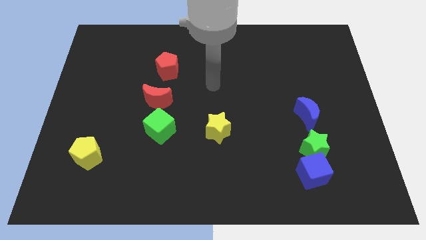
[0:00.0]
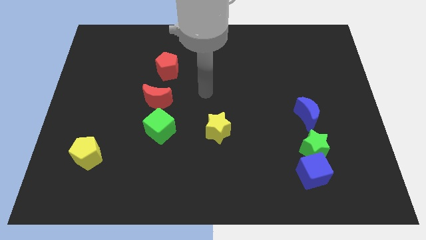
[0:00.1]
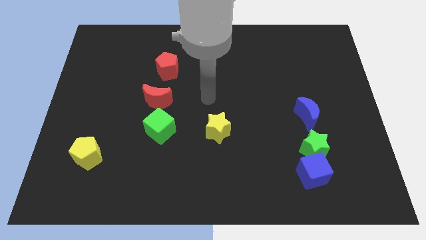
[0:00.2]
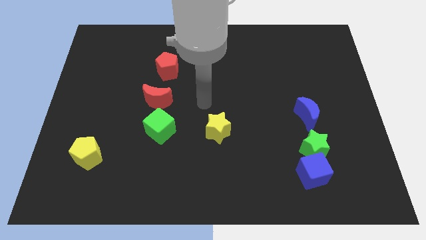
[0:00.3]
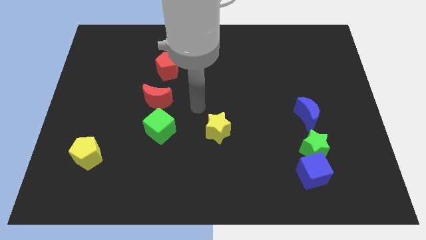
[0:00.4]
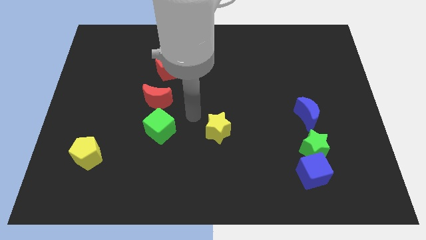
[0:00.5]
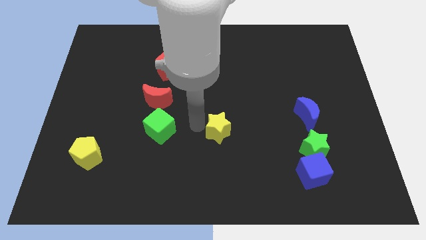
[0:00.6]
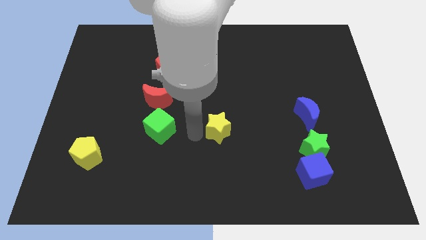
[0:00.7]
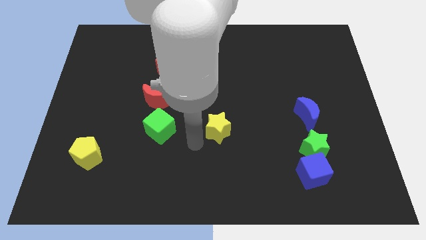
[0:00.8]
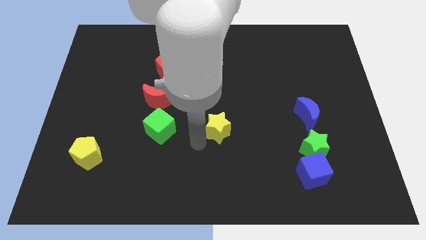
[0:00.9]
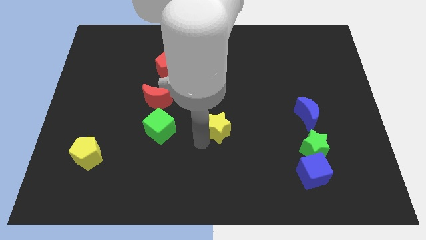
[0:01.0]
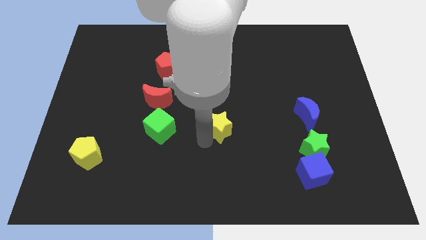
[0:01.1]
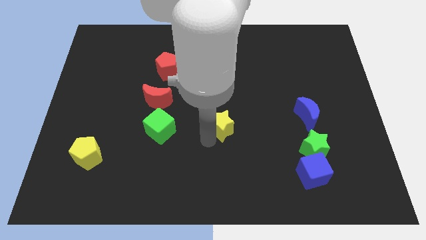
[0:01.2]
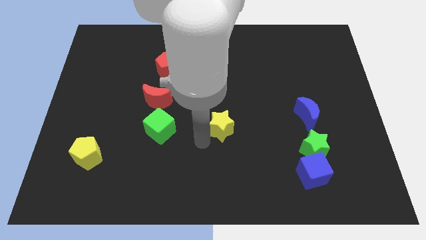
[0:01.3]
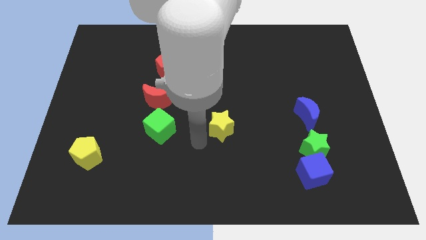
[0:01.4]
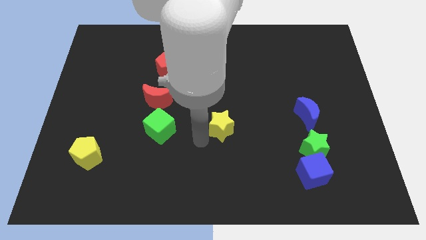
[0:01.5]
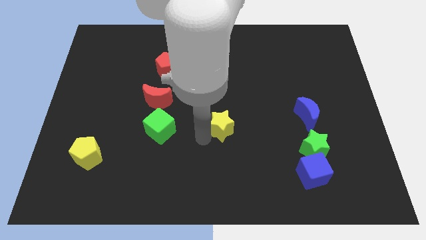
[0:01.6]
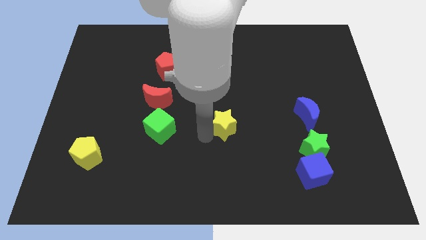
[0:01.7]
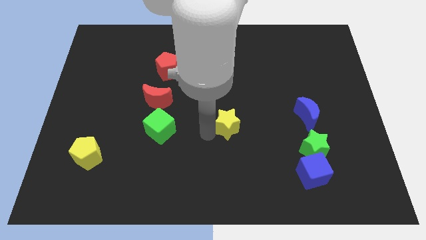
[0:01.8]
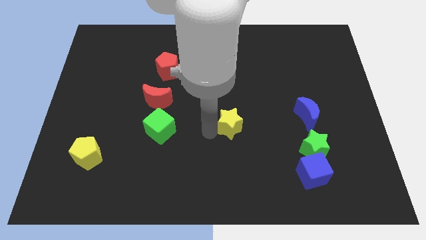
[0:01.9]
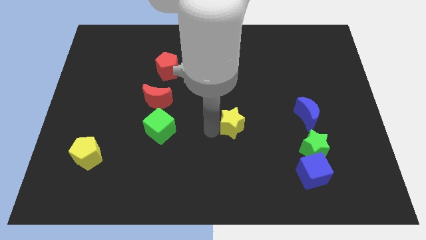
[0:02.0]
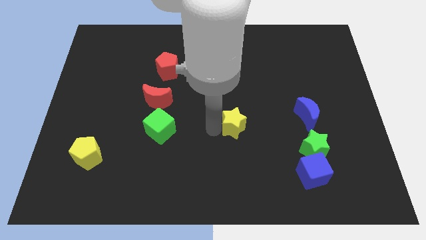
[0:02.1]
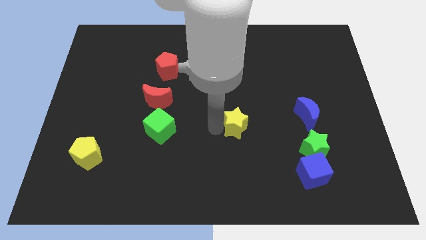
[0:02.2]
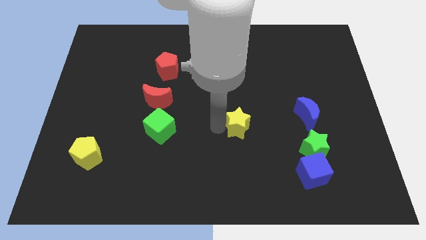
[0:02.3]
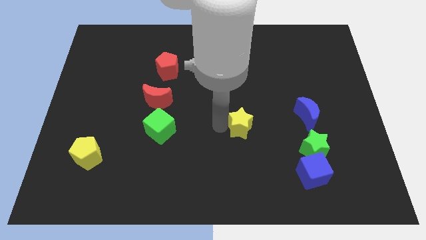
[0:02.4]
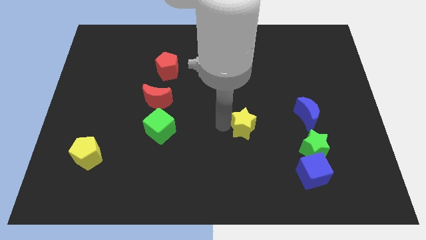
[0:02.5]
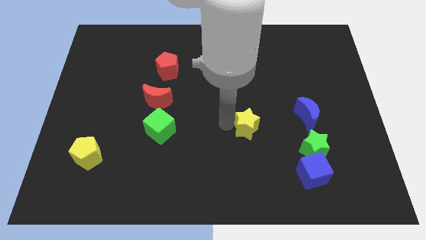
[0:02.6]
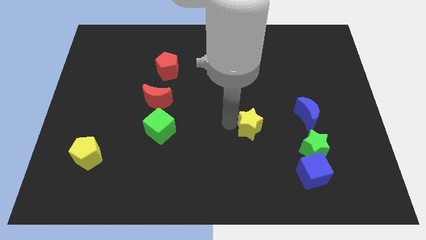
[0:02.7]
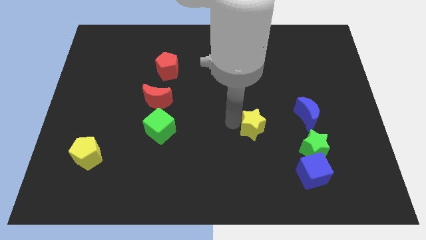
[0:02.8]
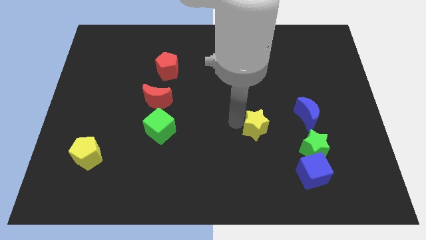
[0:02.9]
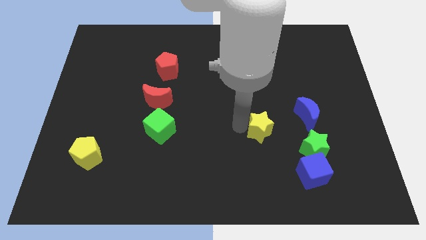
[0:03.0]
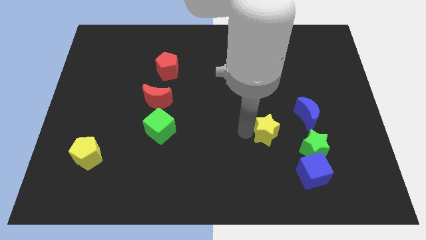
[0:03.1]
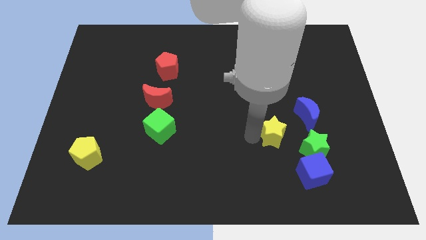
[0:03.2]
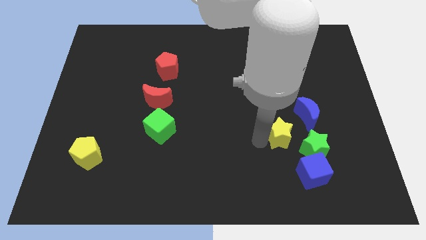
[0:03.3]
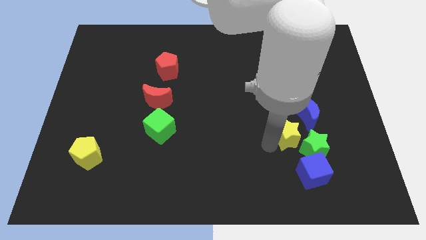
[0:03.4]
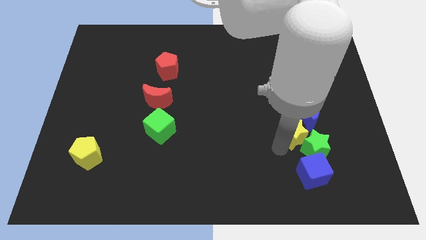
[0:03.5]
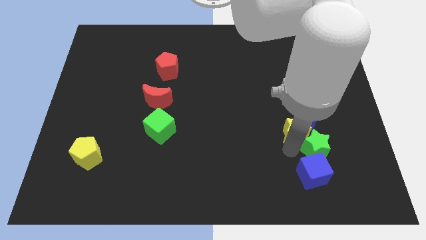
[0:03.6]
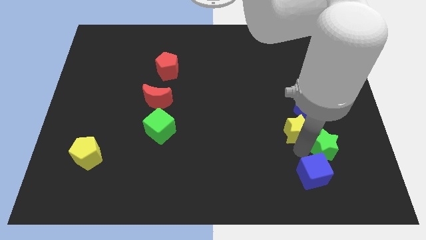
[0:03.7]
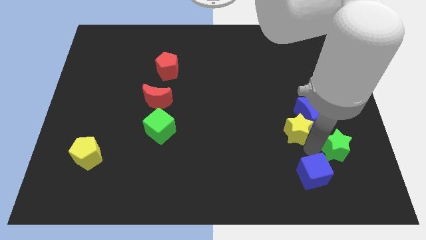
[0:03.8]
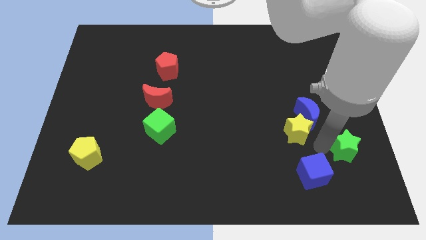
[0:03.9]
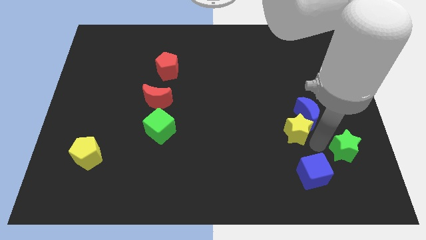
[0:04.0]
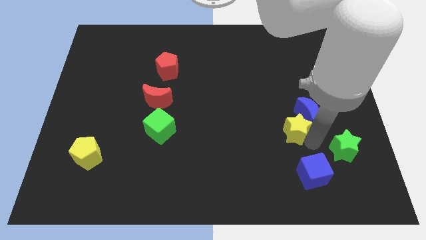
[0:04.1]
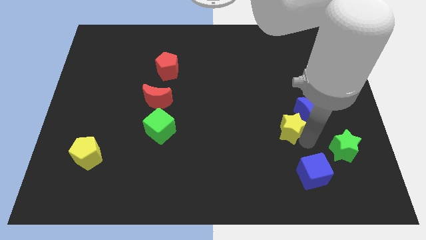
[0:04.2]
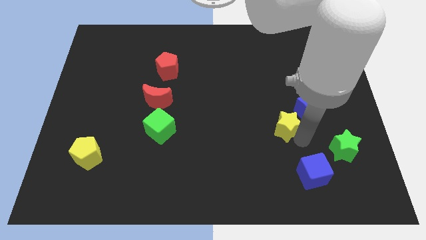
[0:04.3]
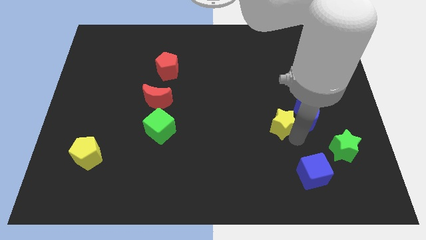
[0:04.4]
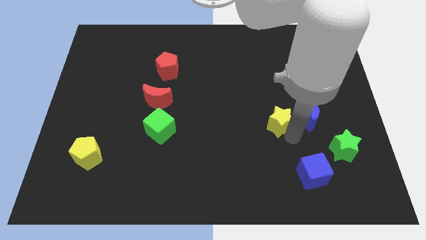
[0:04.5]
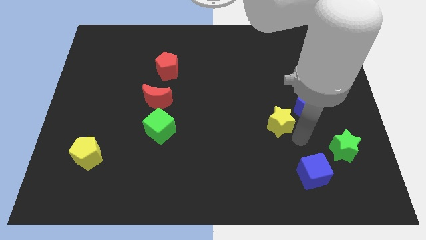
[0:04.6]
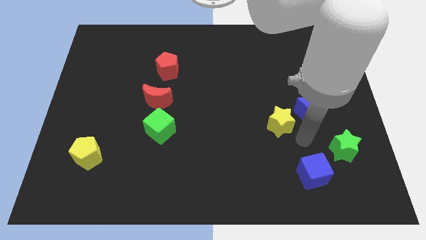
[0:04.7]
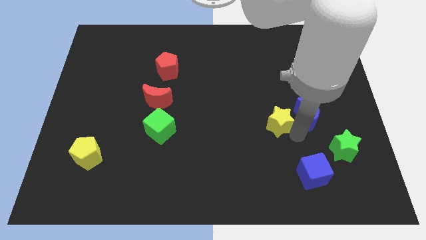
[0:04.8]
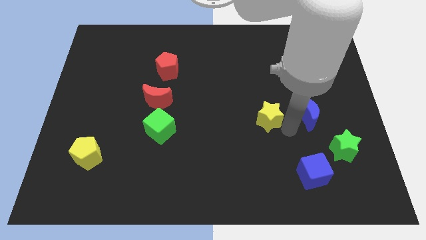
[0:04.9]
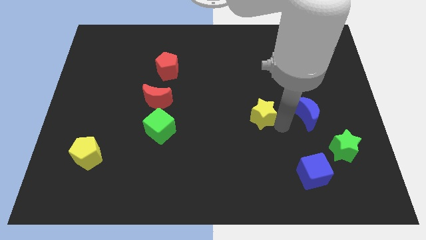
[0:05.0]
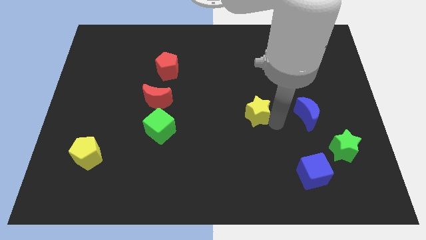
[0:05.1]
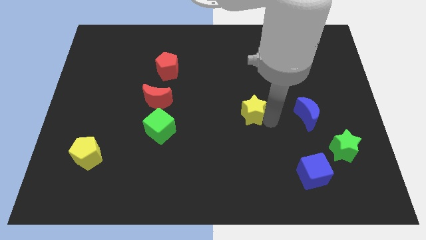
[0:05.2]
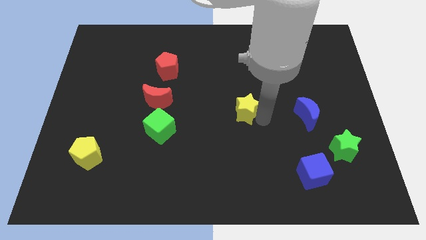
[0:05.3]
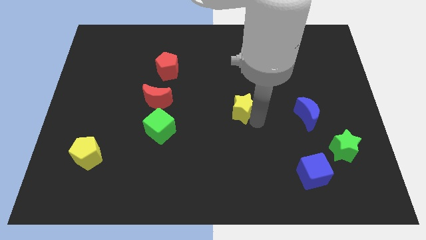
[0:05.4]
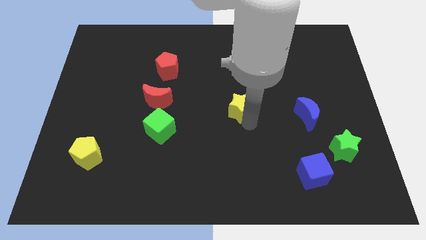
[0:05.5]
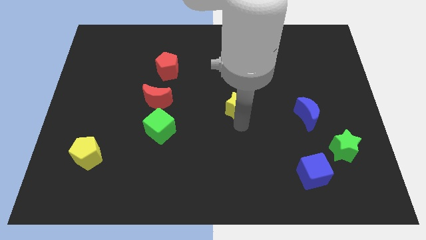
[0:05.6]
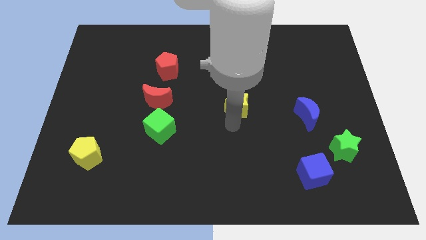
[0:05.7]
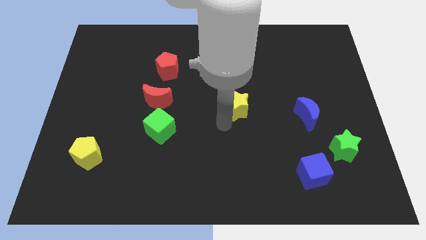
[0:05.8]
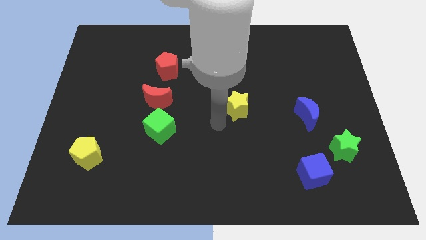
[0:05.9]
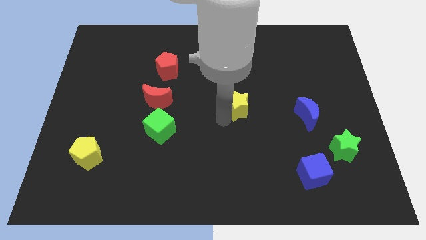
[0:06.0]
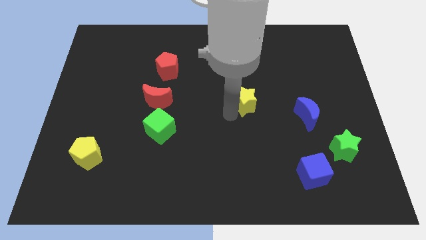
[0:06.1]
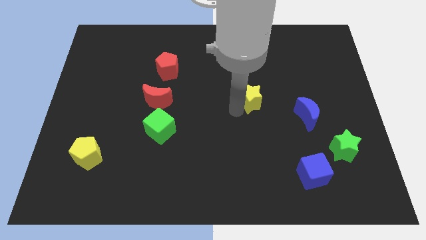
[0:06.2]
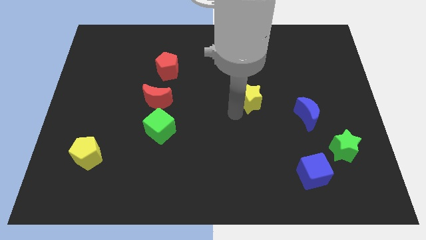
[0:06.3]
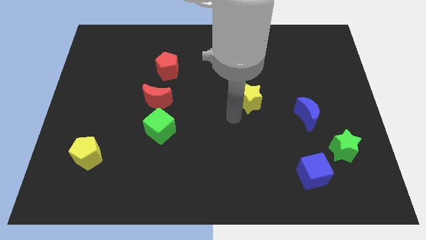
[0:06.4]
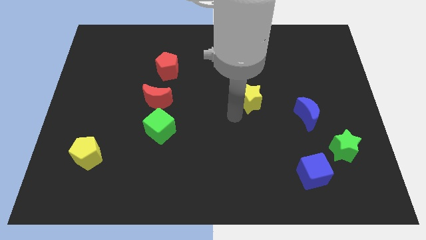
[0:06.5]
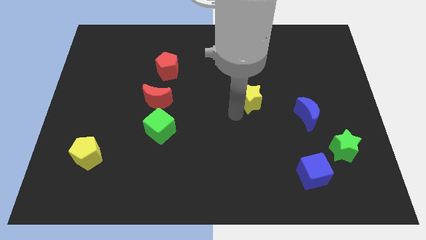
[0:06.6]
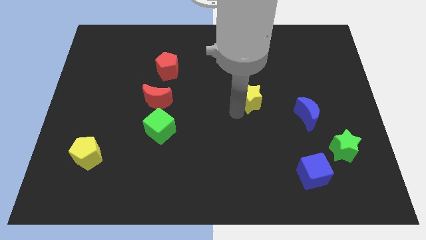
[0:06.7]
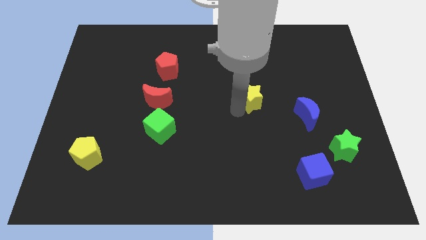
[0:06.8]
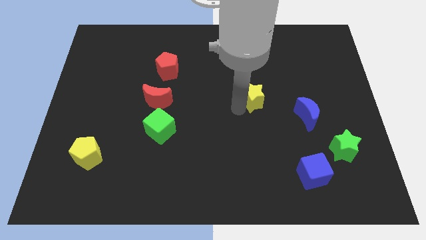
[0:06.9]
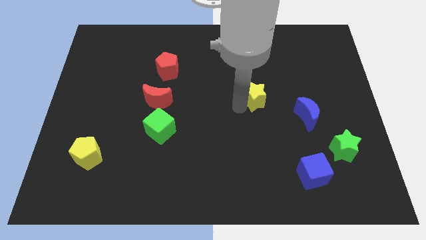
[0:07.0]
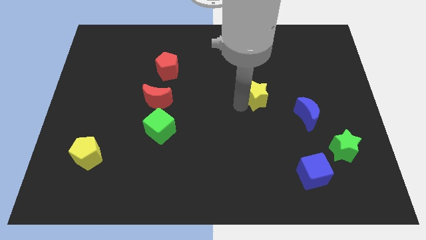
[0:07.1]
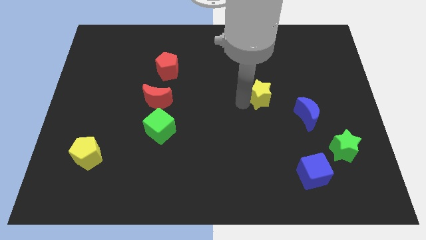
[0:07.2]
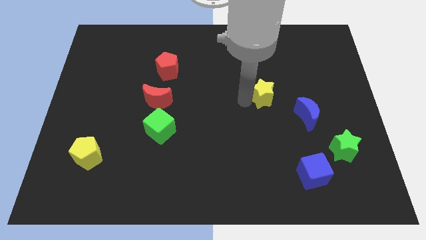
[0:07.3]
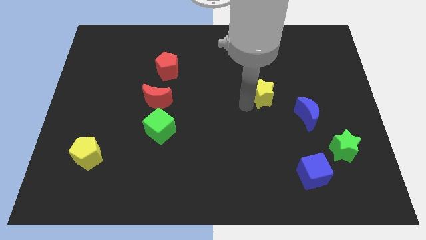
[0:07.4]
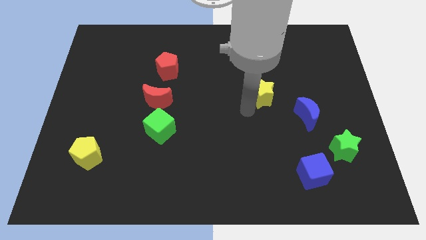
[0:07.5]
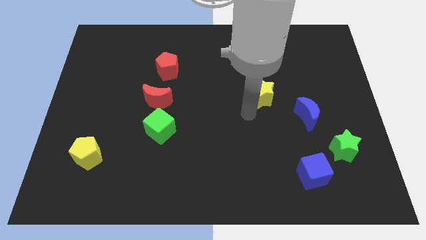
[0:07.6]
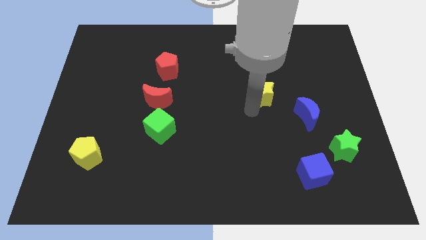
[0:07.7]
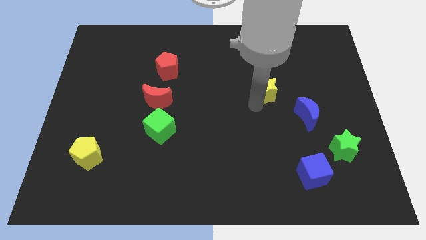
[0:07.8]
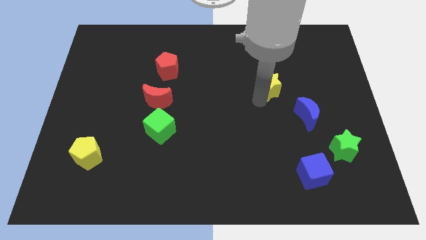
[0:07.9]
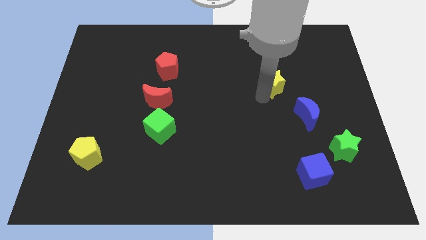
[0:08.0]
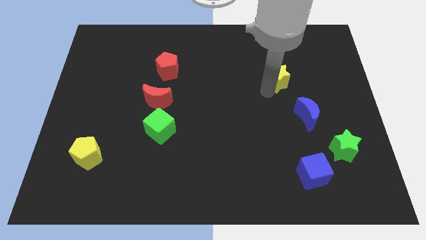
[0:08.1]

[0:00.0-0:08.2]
slide the yellow star upwards and to the right diagonally
